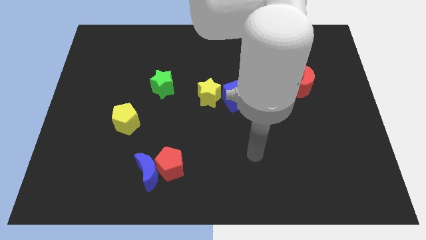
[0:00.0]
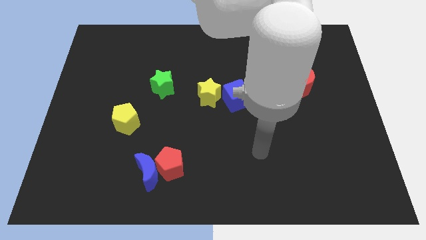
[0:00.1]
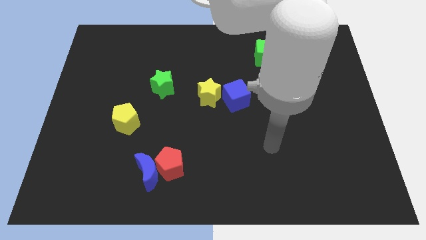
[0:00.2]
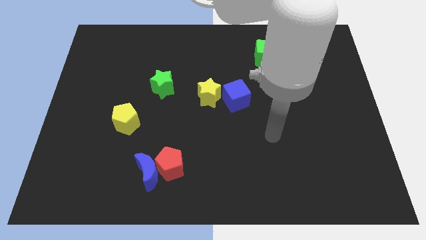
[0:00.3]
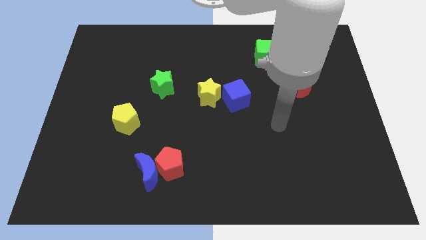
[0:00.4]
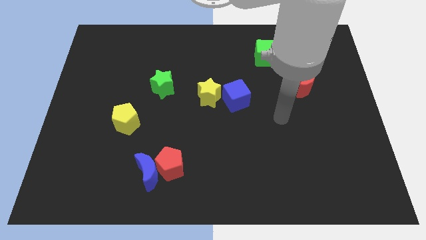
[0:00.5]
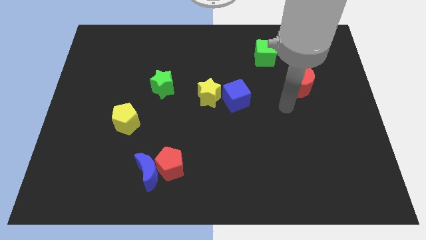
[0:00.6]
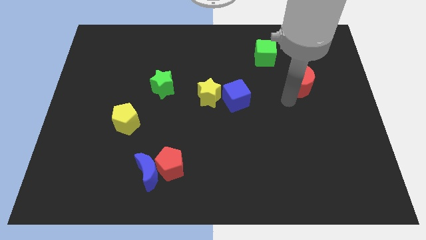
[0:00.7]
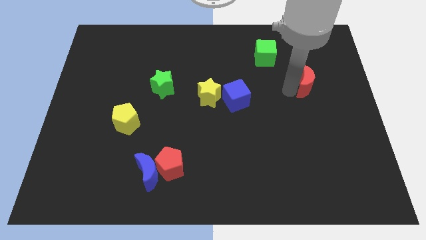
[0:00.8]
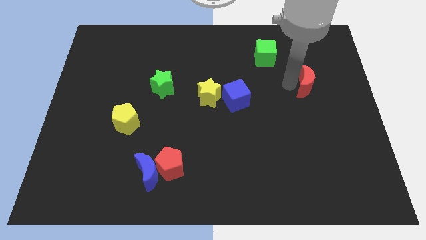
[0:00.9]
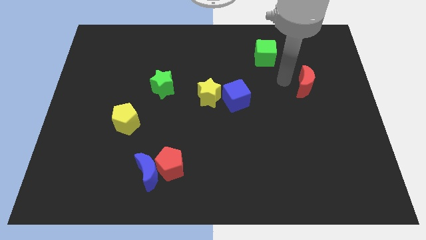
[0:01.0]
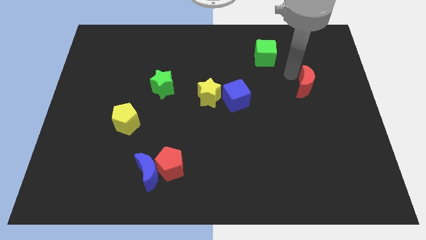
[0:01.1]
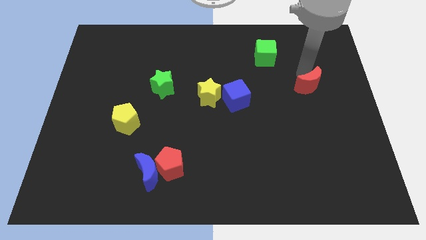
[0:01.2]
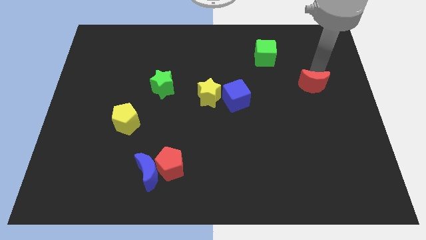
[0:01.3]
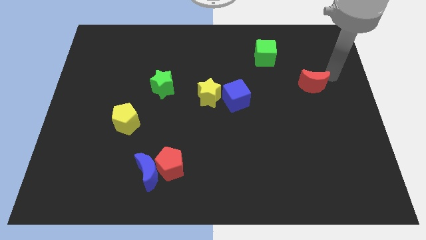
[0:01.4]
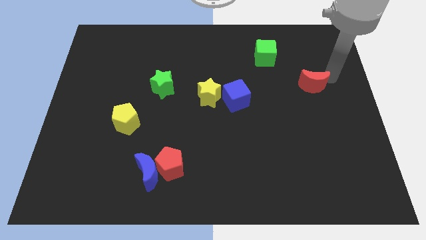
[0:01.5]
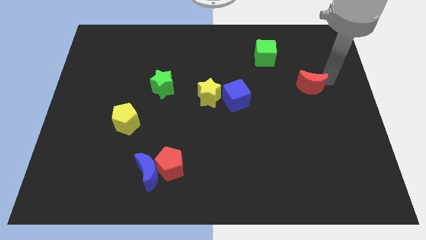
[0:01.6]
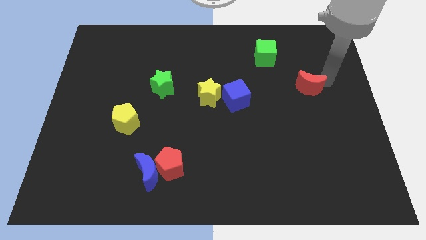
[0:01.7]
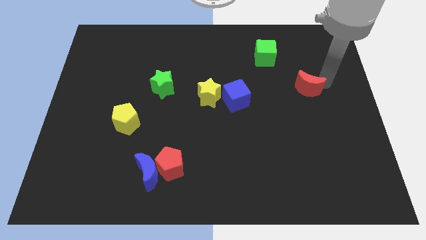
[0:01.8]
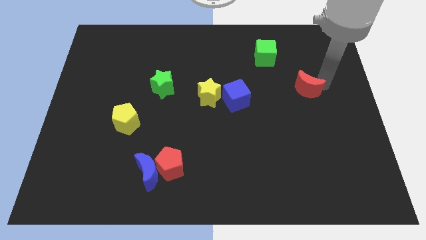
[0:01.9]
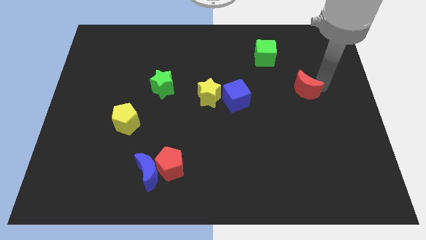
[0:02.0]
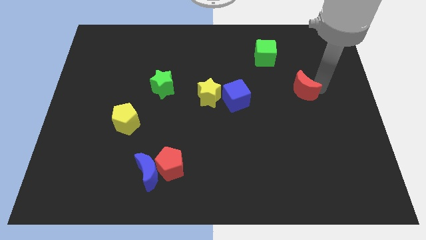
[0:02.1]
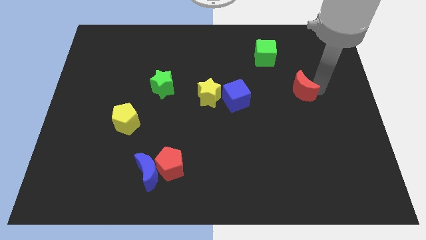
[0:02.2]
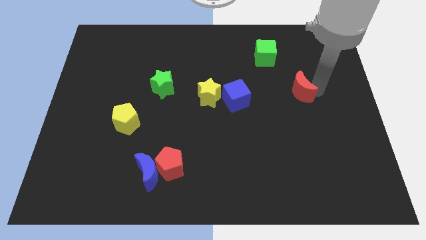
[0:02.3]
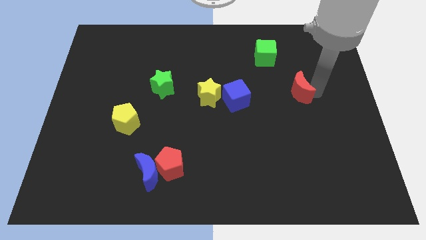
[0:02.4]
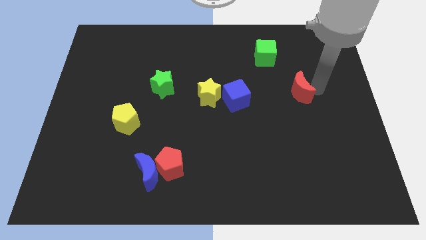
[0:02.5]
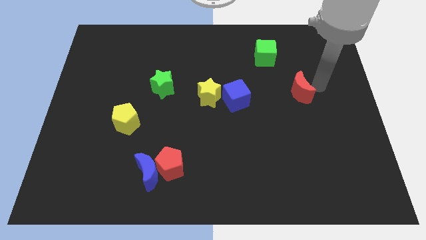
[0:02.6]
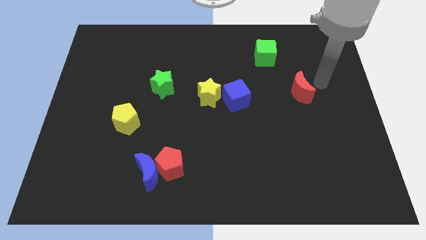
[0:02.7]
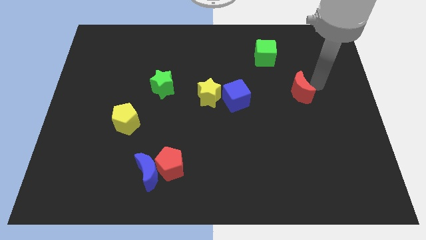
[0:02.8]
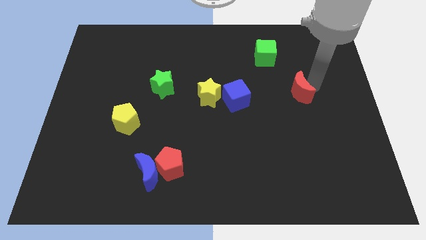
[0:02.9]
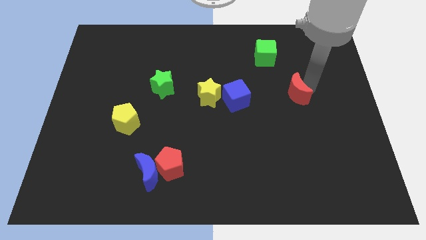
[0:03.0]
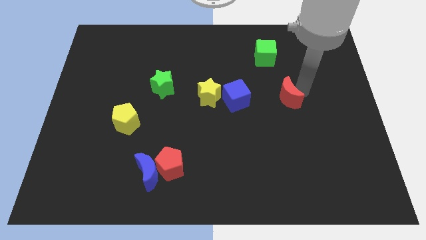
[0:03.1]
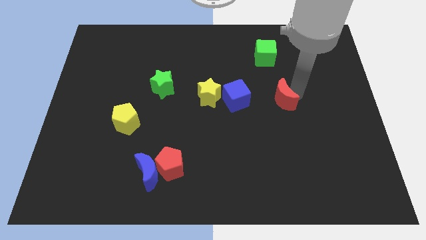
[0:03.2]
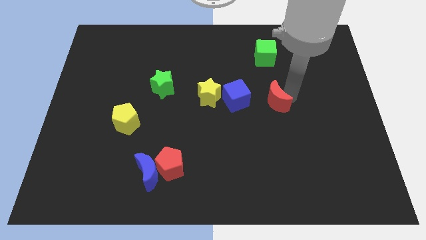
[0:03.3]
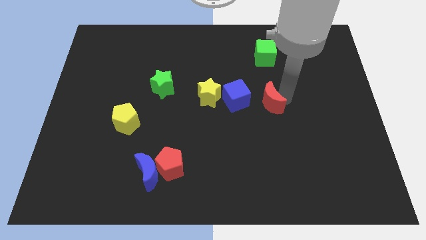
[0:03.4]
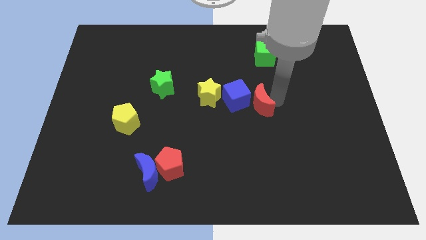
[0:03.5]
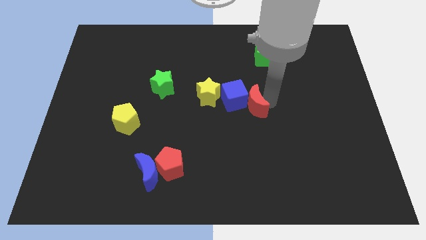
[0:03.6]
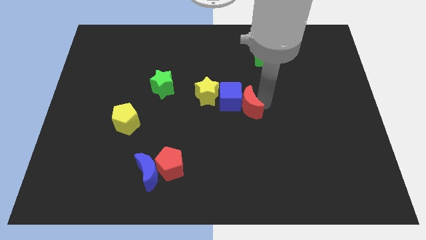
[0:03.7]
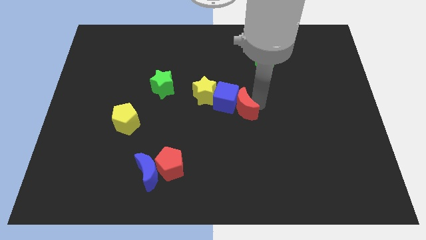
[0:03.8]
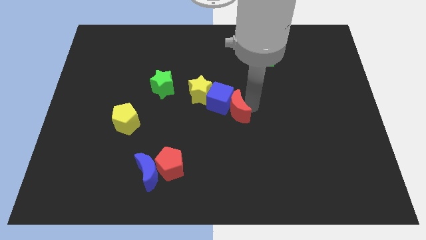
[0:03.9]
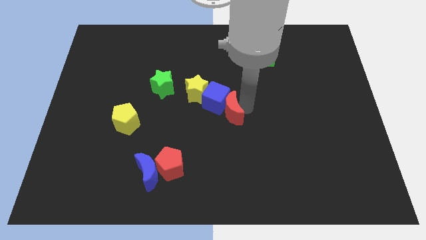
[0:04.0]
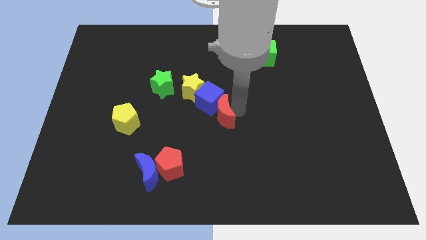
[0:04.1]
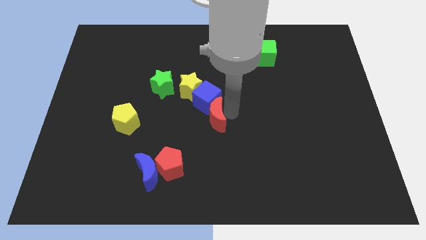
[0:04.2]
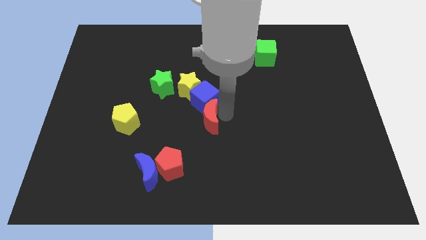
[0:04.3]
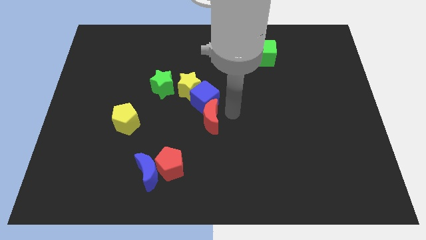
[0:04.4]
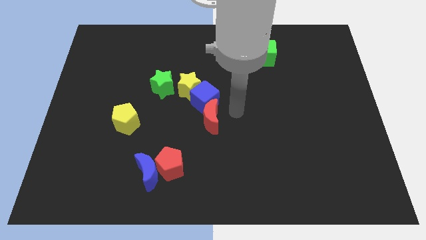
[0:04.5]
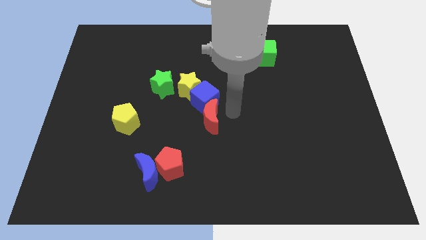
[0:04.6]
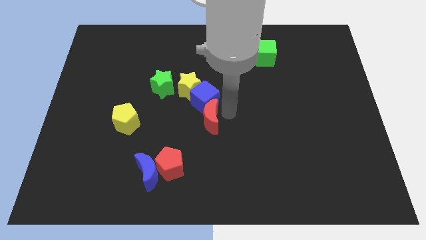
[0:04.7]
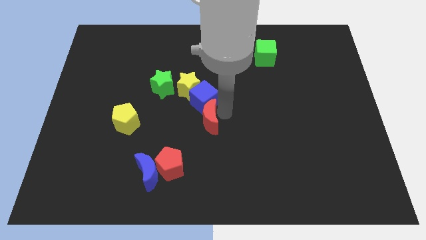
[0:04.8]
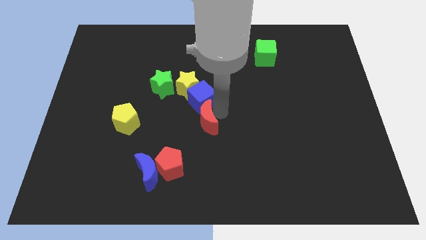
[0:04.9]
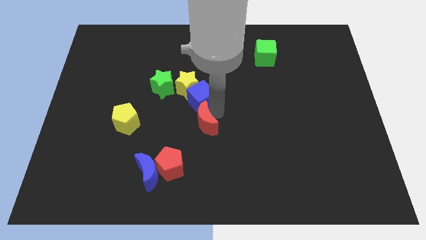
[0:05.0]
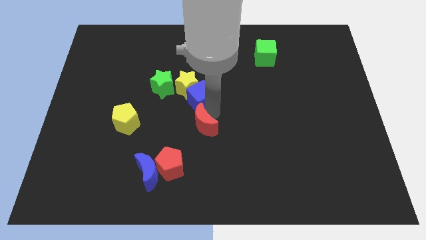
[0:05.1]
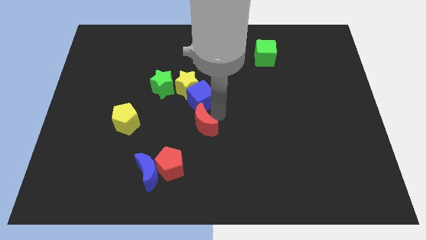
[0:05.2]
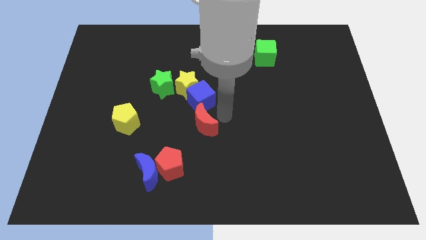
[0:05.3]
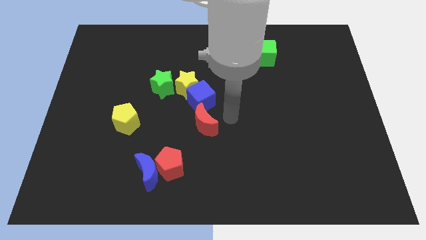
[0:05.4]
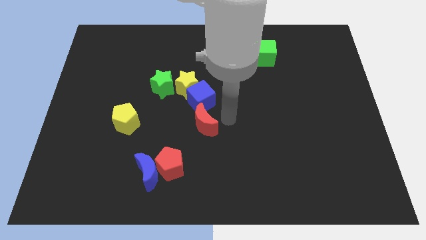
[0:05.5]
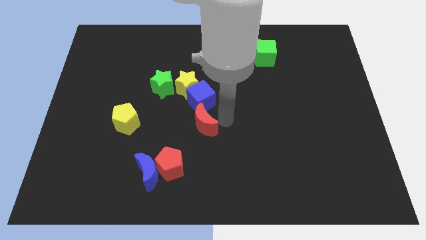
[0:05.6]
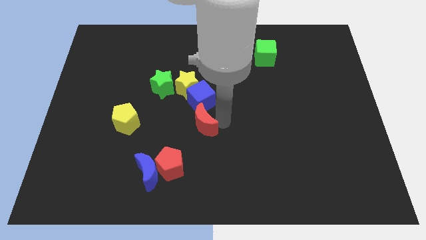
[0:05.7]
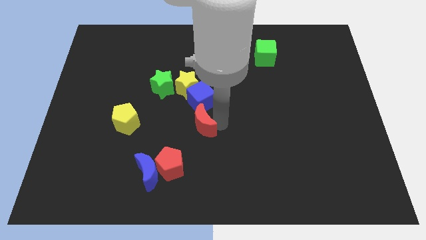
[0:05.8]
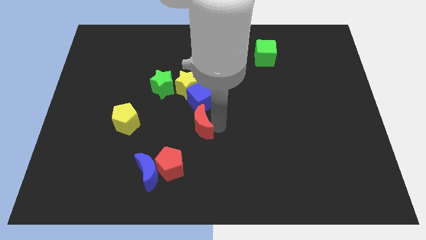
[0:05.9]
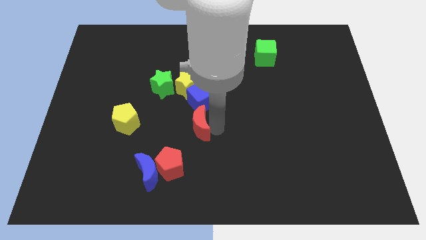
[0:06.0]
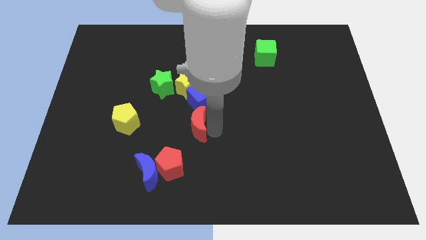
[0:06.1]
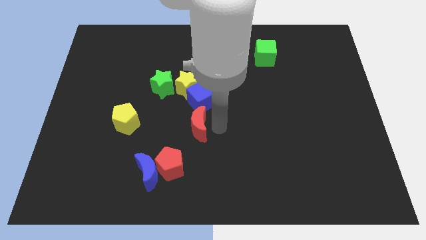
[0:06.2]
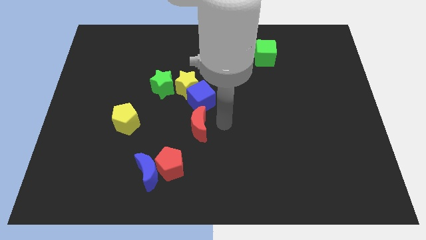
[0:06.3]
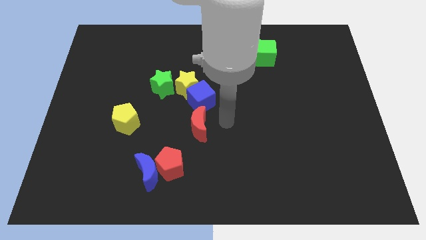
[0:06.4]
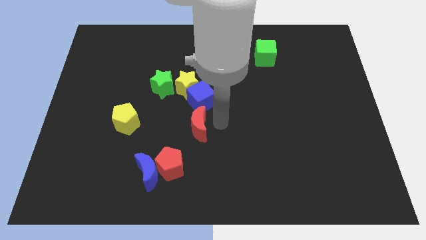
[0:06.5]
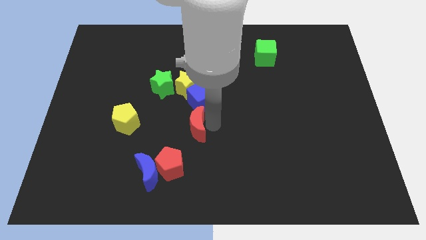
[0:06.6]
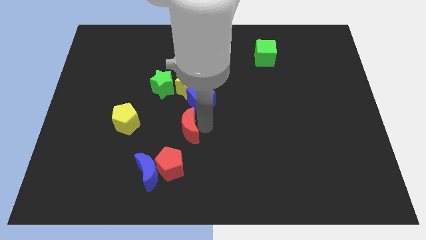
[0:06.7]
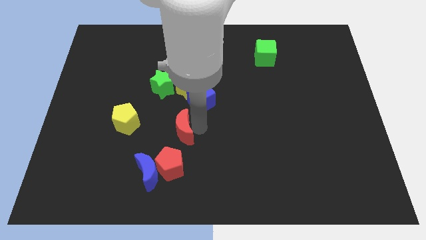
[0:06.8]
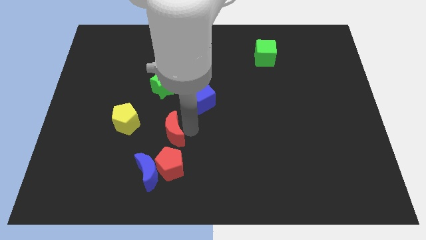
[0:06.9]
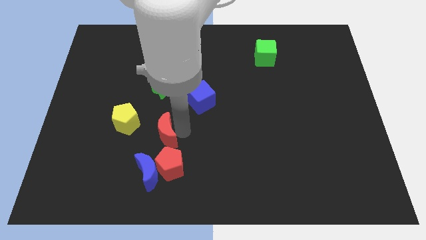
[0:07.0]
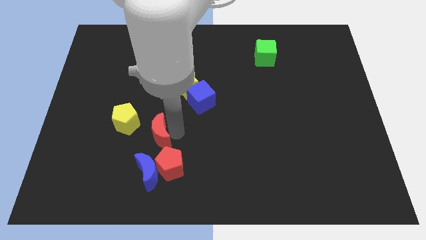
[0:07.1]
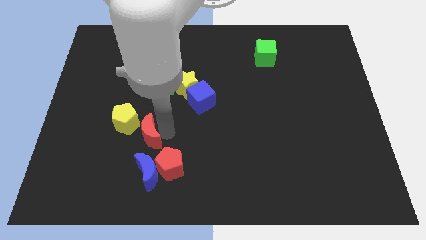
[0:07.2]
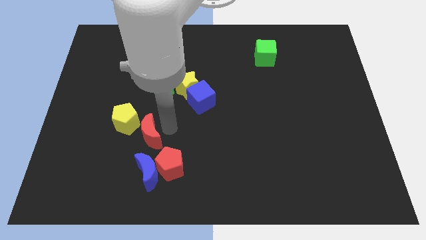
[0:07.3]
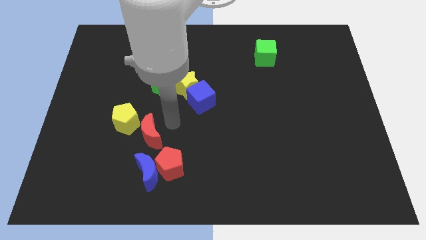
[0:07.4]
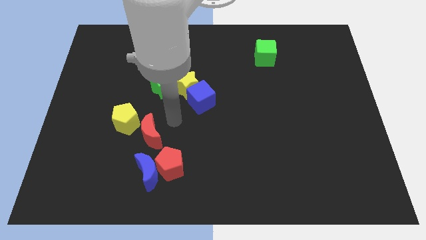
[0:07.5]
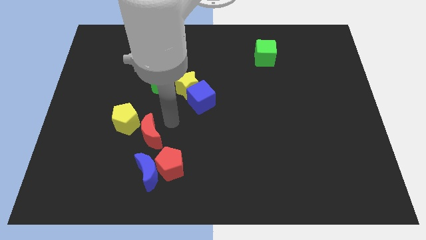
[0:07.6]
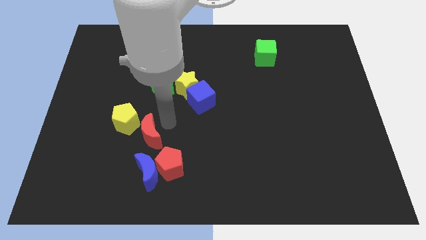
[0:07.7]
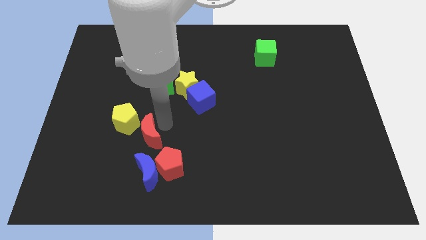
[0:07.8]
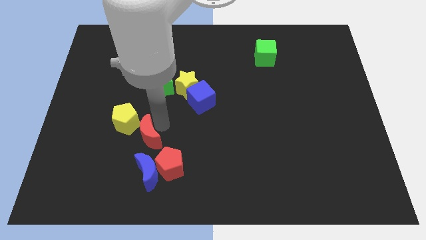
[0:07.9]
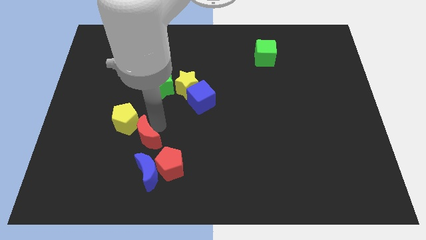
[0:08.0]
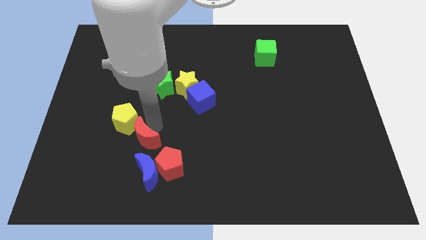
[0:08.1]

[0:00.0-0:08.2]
move the red moon diagonally up and to the left of the blue moon
